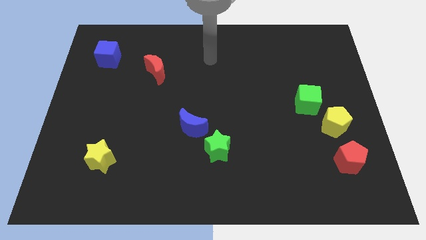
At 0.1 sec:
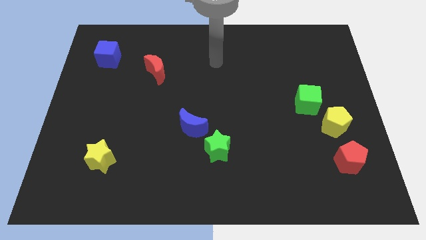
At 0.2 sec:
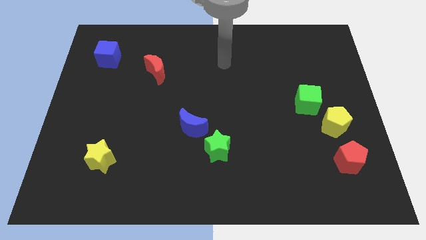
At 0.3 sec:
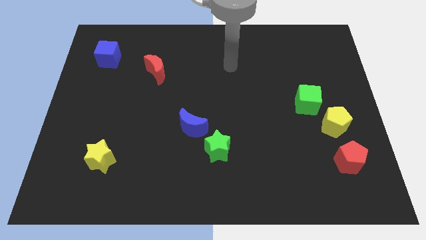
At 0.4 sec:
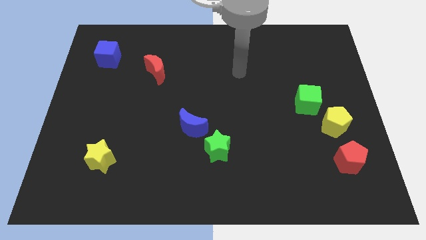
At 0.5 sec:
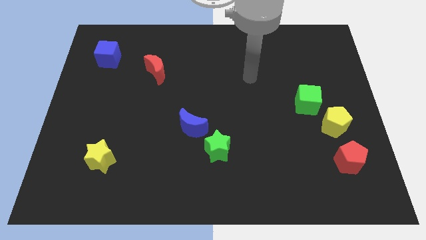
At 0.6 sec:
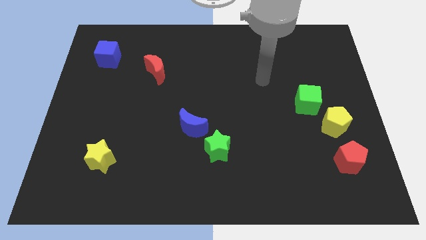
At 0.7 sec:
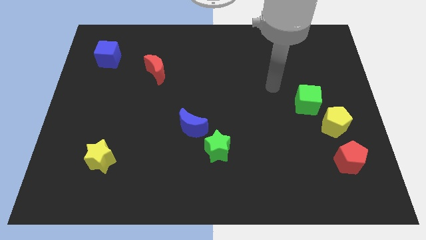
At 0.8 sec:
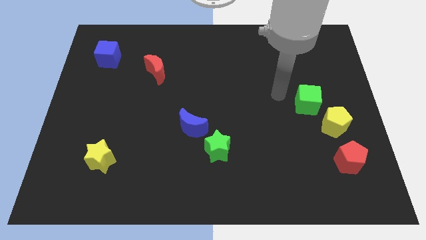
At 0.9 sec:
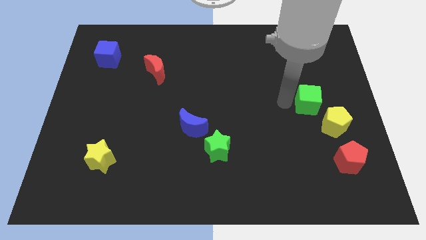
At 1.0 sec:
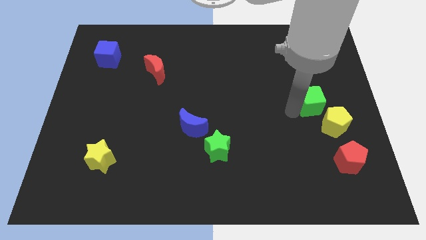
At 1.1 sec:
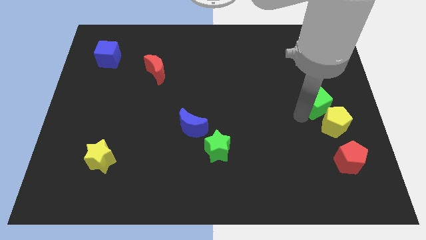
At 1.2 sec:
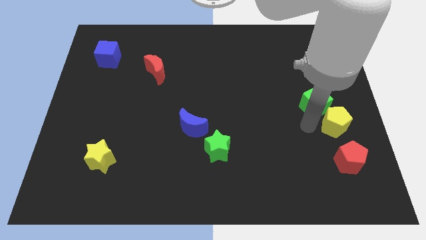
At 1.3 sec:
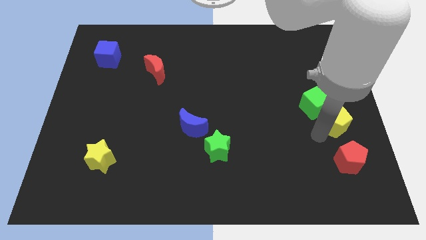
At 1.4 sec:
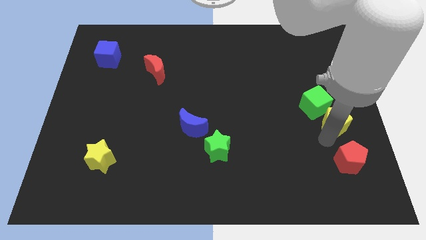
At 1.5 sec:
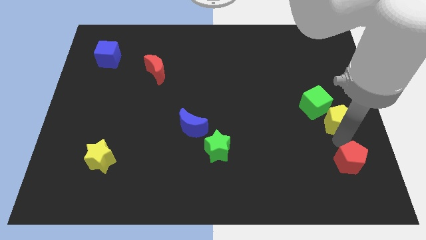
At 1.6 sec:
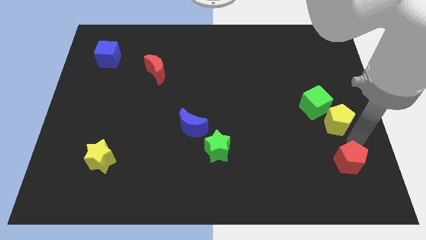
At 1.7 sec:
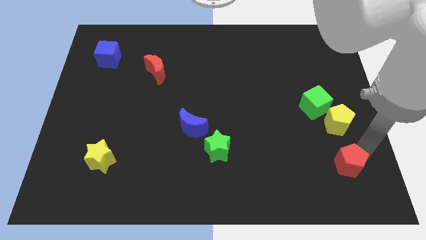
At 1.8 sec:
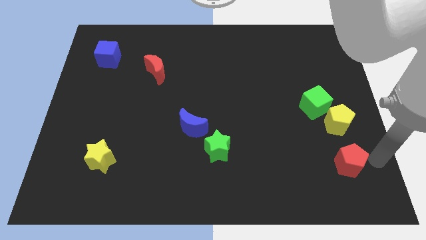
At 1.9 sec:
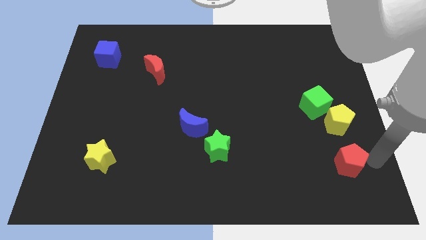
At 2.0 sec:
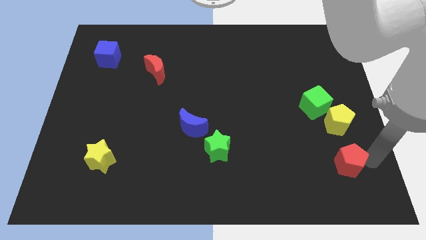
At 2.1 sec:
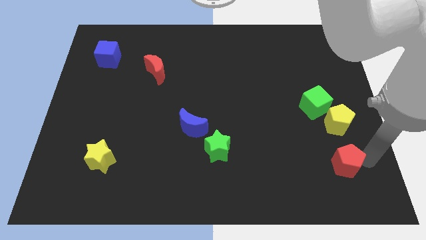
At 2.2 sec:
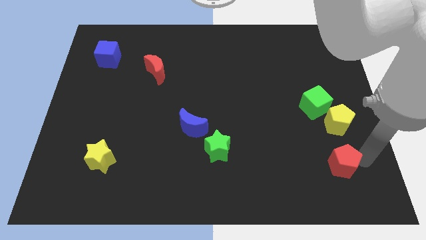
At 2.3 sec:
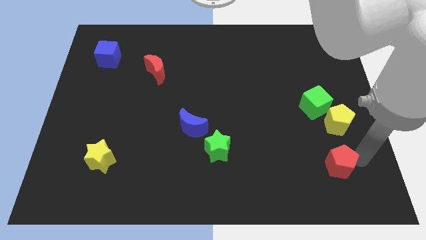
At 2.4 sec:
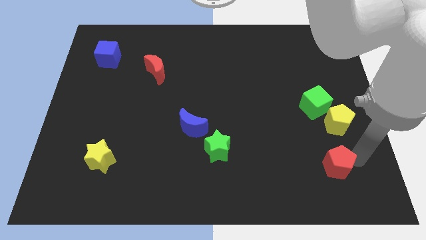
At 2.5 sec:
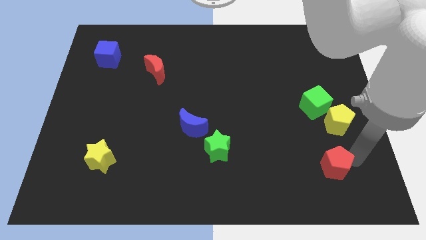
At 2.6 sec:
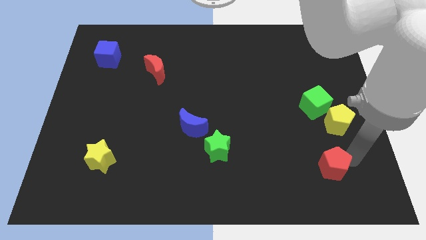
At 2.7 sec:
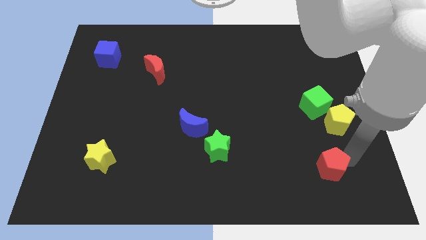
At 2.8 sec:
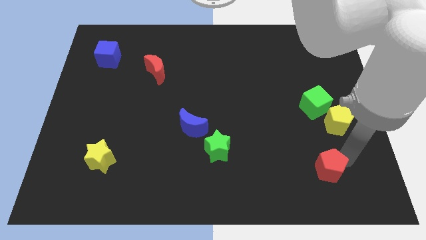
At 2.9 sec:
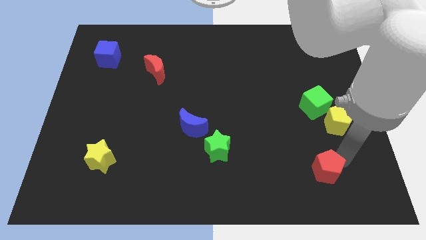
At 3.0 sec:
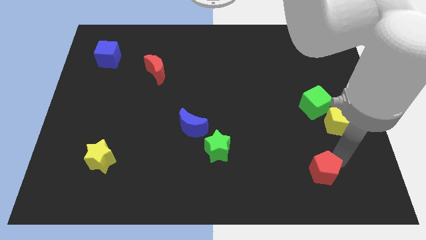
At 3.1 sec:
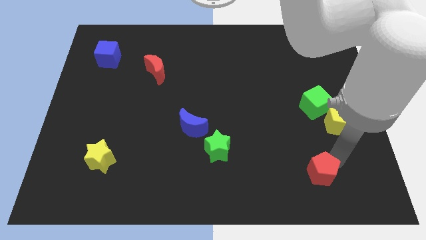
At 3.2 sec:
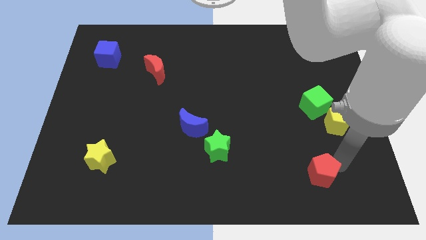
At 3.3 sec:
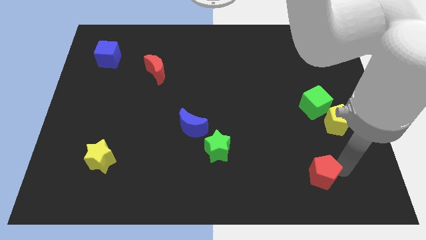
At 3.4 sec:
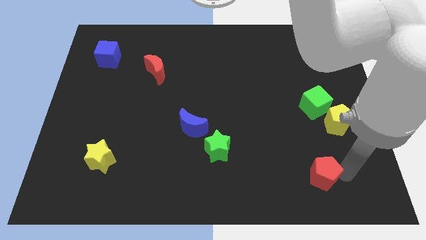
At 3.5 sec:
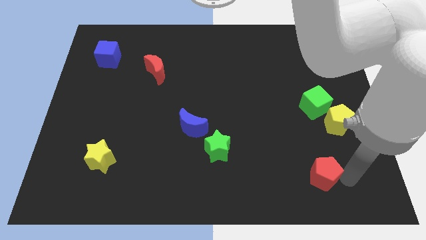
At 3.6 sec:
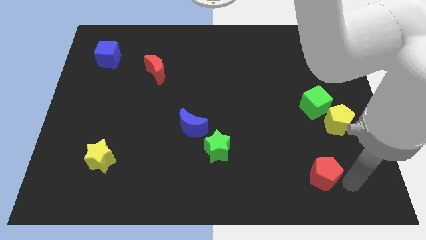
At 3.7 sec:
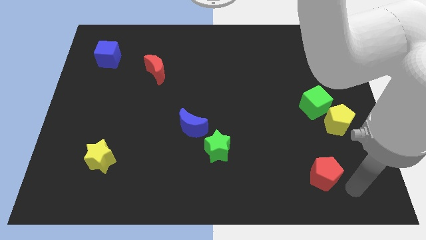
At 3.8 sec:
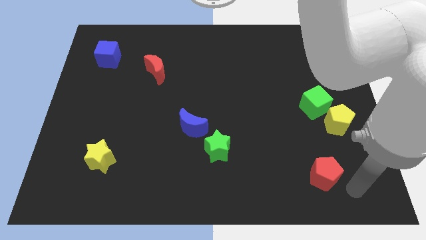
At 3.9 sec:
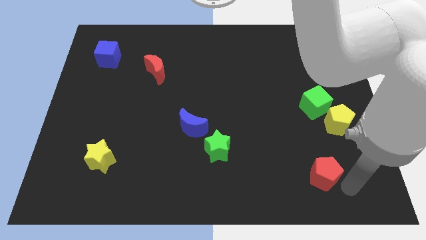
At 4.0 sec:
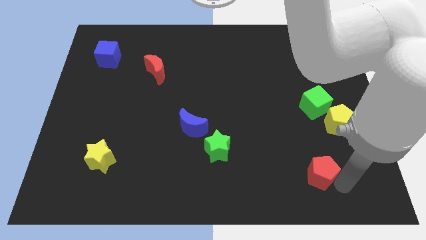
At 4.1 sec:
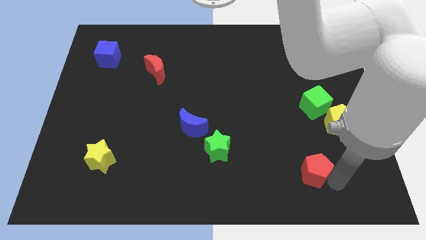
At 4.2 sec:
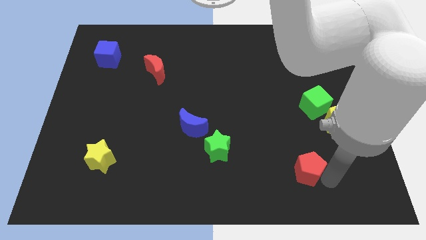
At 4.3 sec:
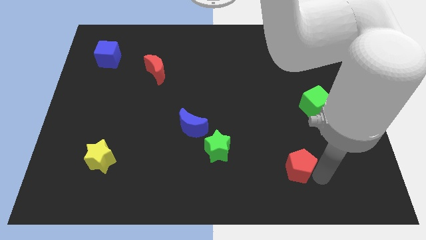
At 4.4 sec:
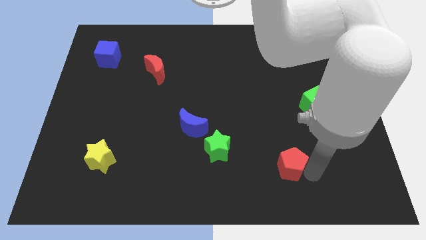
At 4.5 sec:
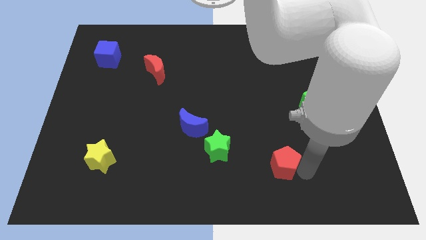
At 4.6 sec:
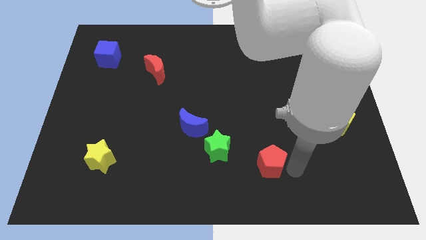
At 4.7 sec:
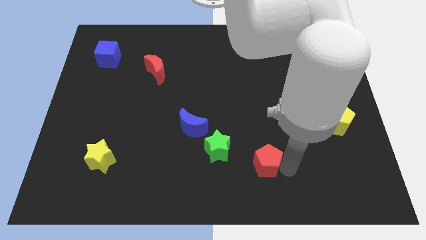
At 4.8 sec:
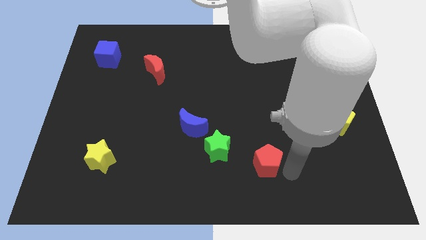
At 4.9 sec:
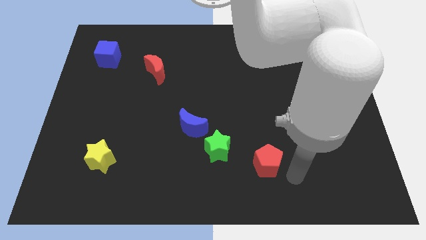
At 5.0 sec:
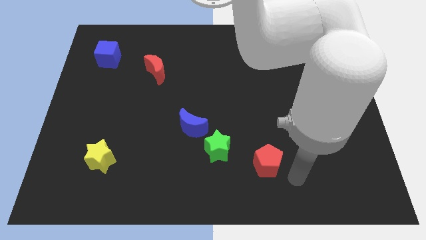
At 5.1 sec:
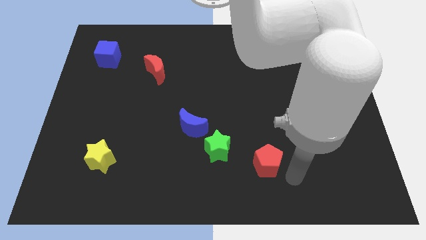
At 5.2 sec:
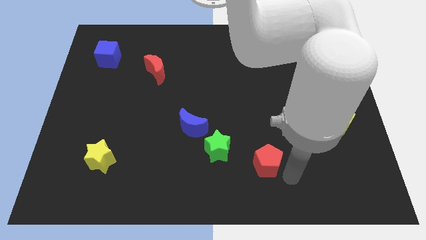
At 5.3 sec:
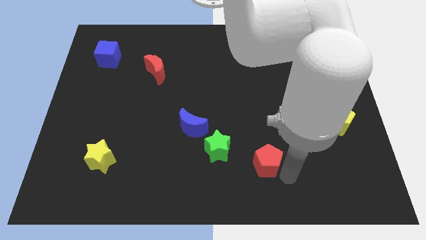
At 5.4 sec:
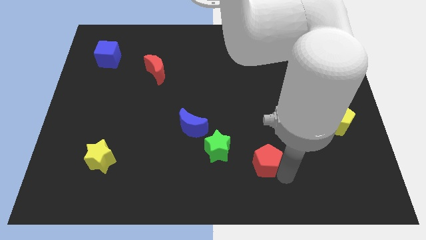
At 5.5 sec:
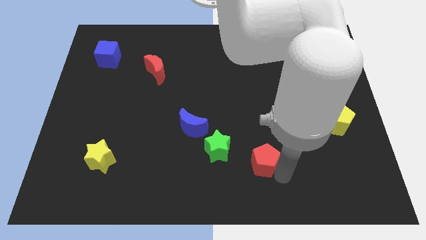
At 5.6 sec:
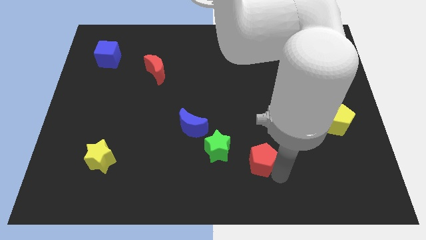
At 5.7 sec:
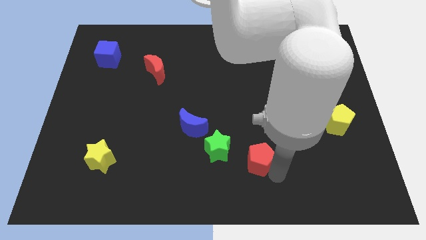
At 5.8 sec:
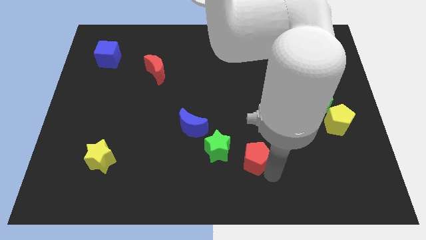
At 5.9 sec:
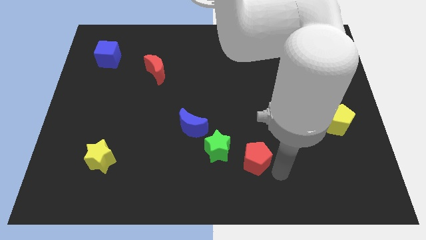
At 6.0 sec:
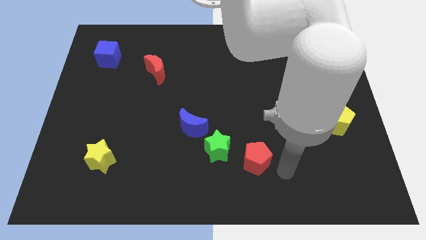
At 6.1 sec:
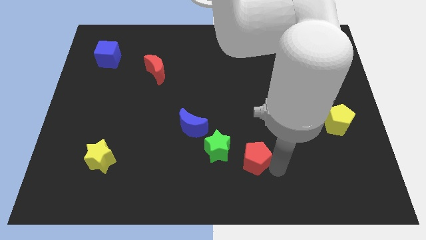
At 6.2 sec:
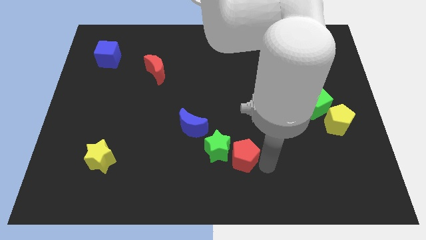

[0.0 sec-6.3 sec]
slide the red pentagon next to the green star

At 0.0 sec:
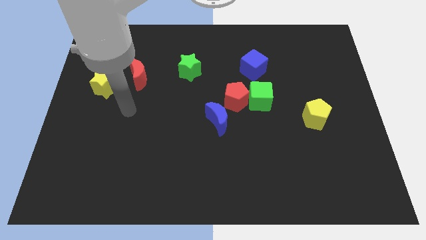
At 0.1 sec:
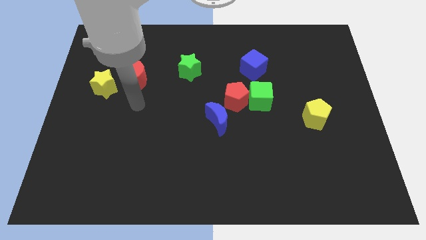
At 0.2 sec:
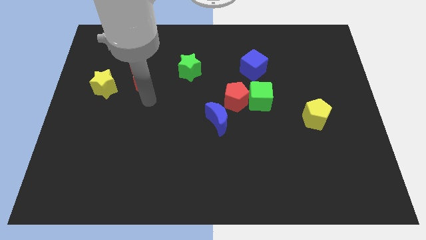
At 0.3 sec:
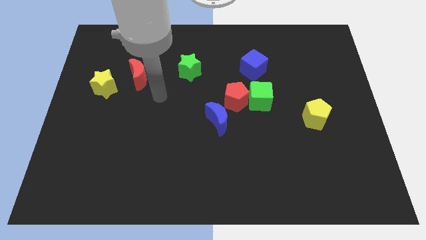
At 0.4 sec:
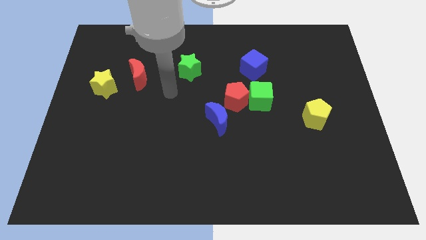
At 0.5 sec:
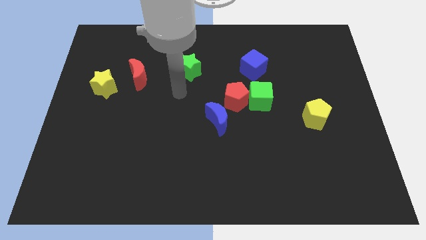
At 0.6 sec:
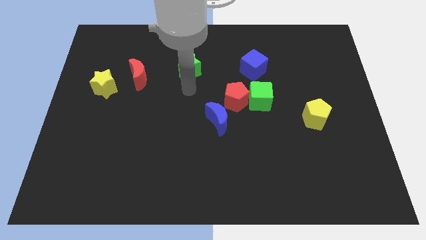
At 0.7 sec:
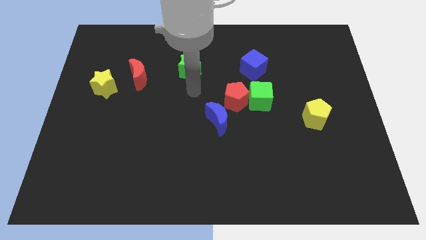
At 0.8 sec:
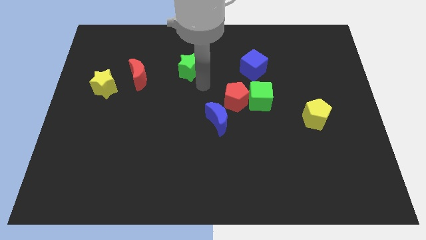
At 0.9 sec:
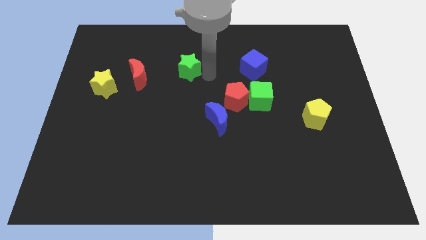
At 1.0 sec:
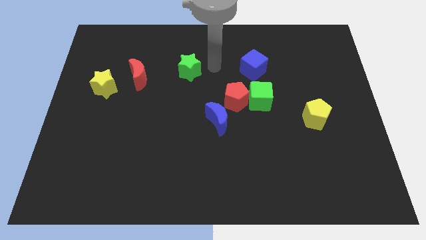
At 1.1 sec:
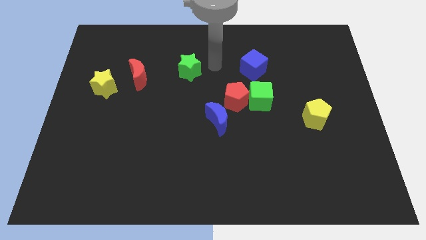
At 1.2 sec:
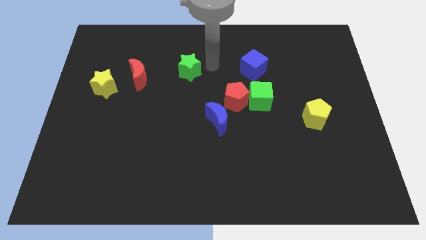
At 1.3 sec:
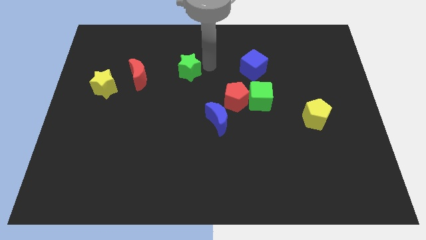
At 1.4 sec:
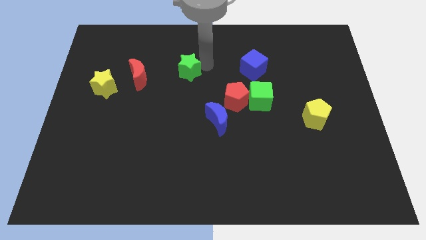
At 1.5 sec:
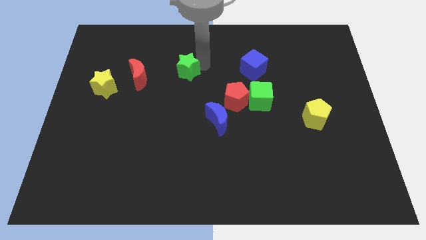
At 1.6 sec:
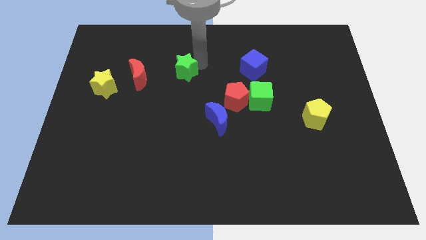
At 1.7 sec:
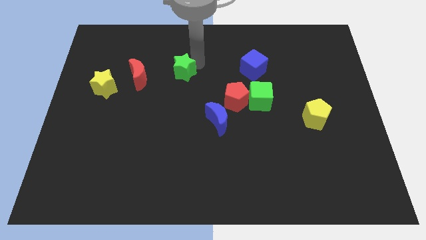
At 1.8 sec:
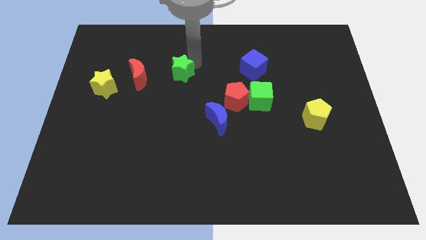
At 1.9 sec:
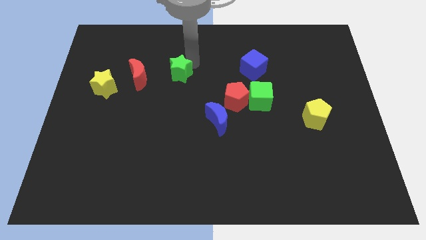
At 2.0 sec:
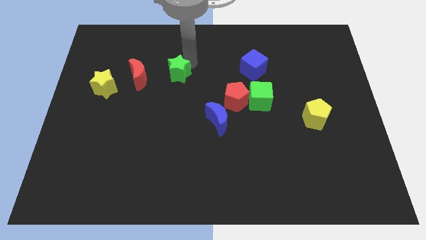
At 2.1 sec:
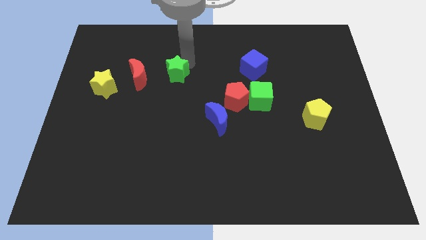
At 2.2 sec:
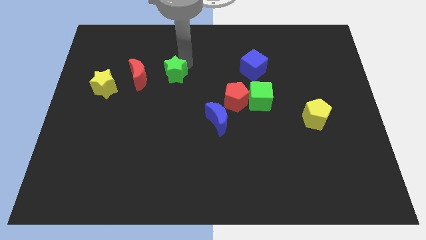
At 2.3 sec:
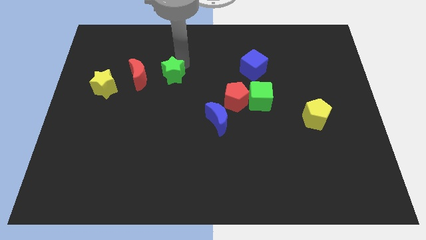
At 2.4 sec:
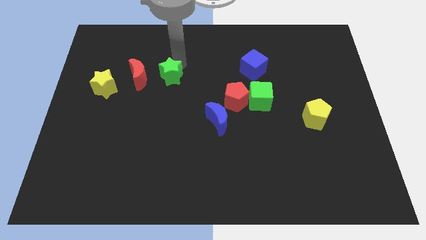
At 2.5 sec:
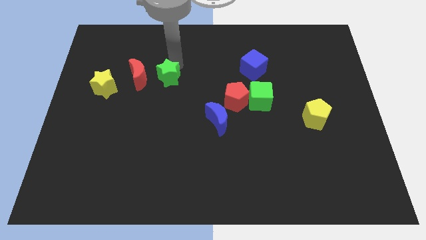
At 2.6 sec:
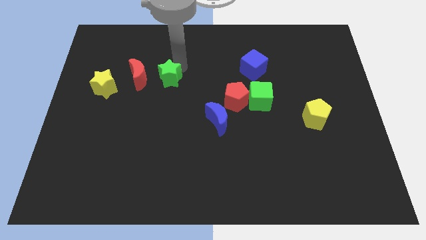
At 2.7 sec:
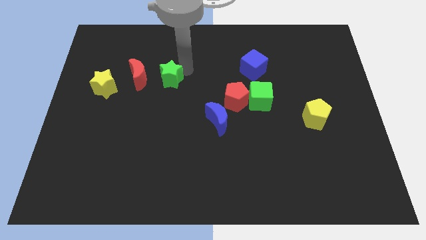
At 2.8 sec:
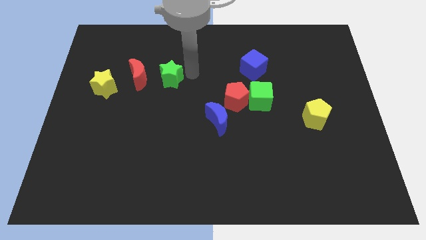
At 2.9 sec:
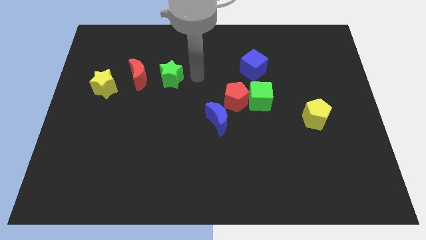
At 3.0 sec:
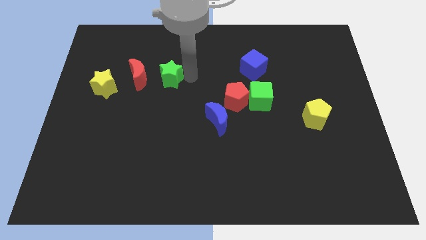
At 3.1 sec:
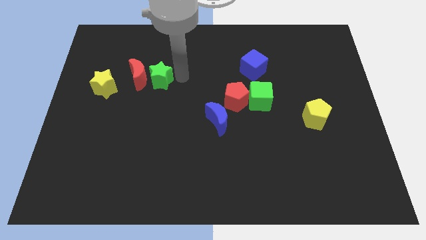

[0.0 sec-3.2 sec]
slide the green star close to the red moon
